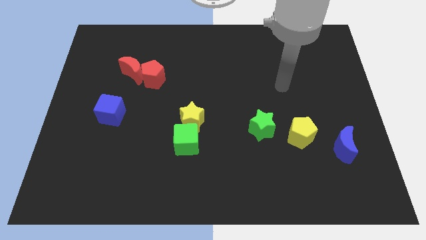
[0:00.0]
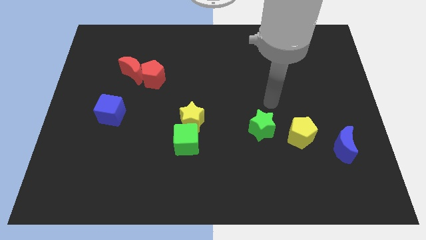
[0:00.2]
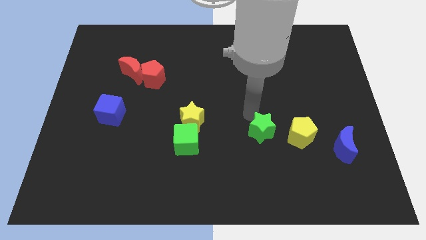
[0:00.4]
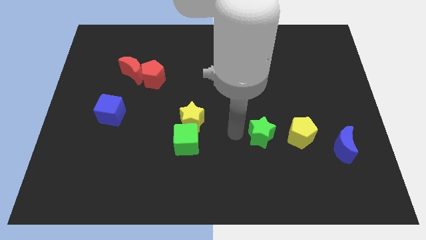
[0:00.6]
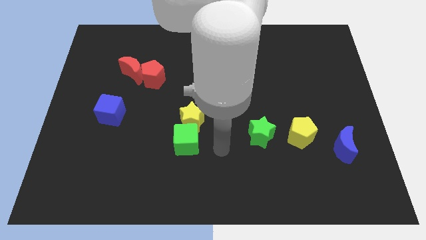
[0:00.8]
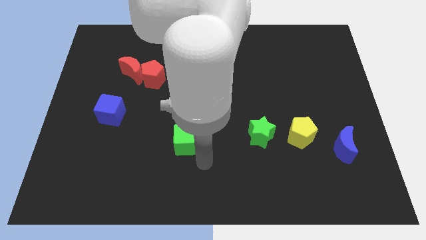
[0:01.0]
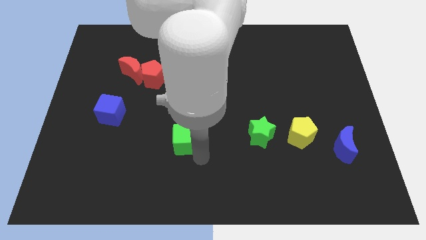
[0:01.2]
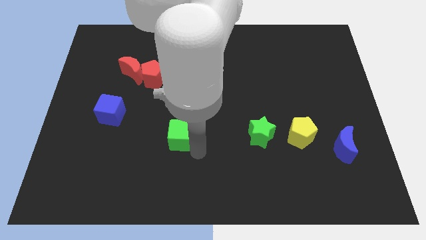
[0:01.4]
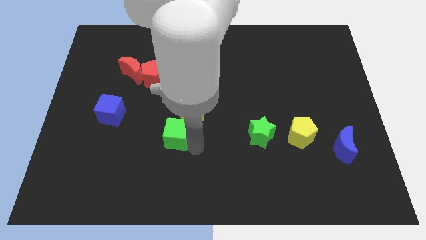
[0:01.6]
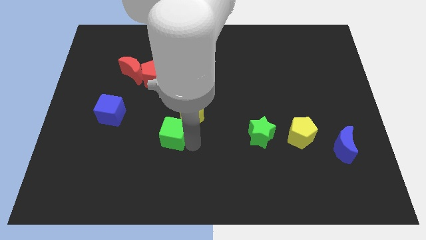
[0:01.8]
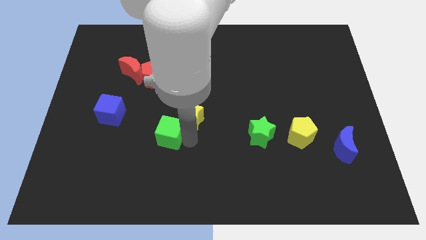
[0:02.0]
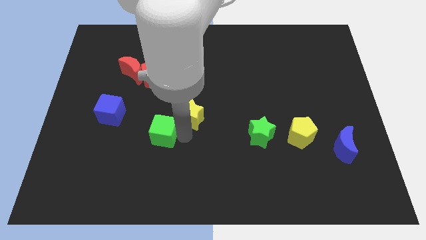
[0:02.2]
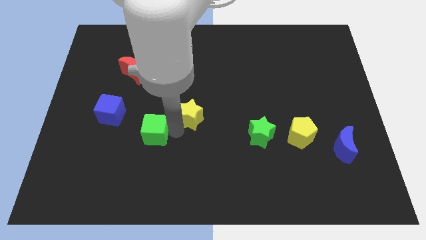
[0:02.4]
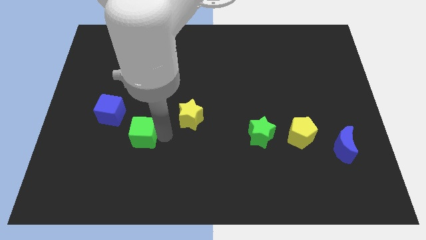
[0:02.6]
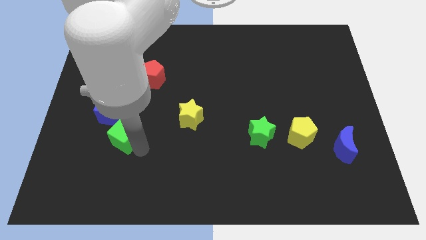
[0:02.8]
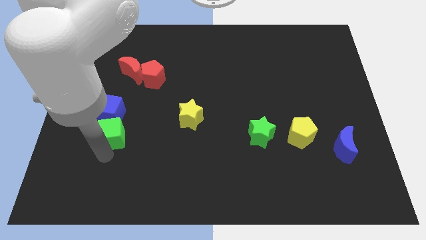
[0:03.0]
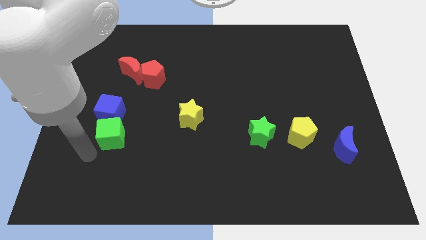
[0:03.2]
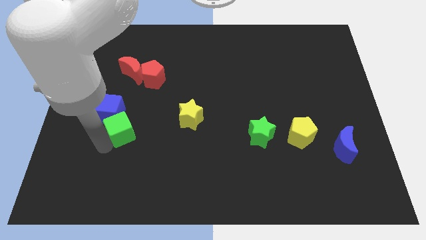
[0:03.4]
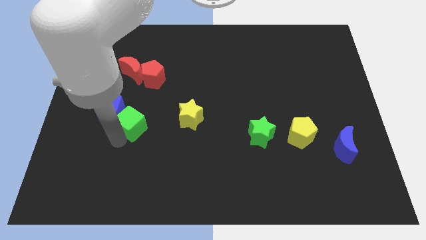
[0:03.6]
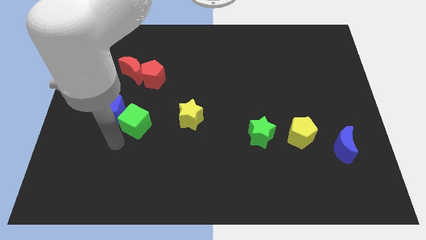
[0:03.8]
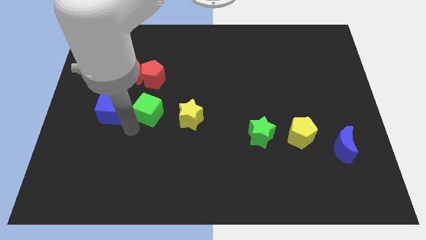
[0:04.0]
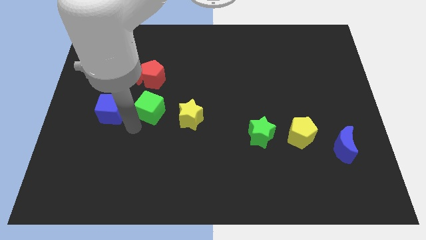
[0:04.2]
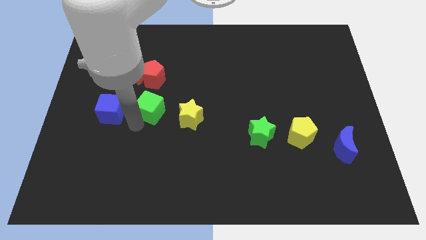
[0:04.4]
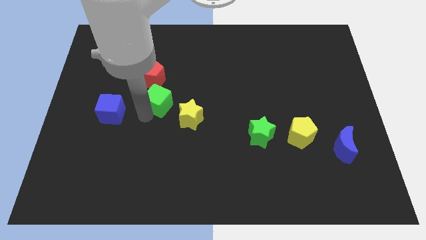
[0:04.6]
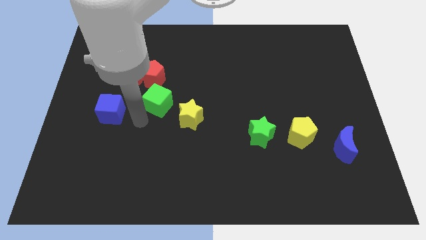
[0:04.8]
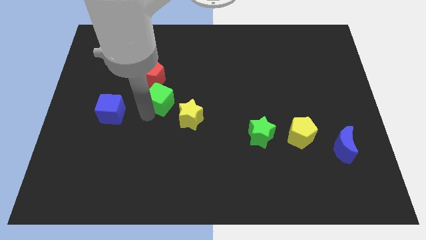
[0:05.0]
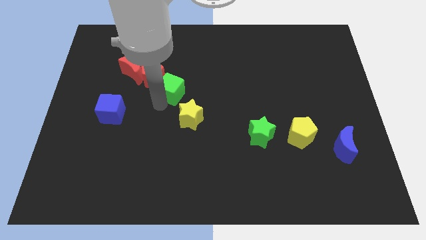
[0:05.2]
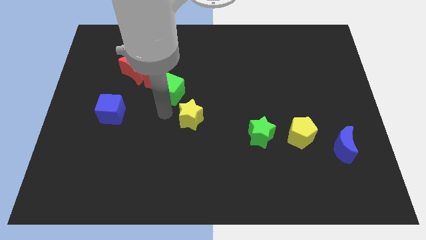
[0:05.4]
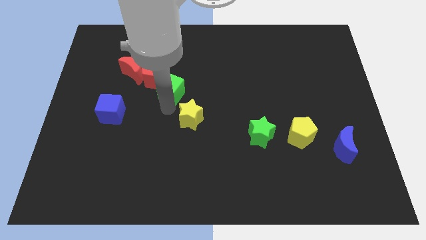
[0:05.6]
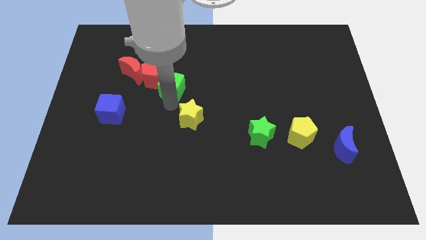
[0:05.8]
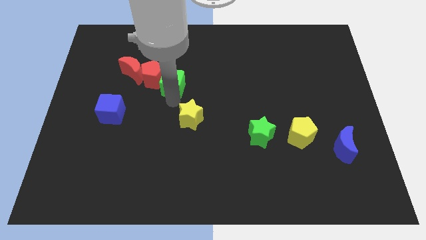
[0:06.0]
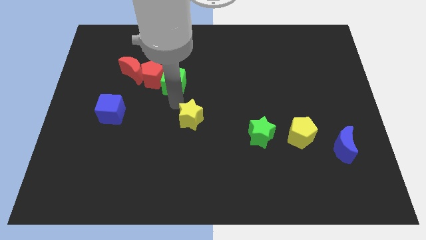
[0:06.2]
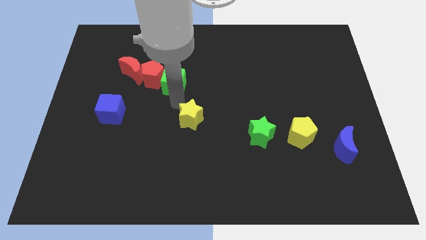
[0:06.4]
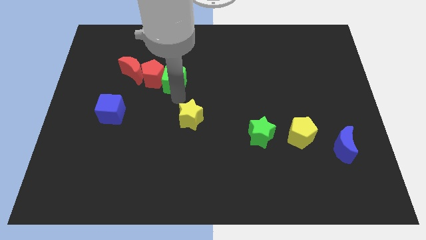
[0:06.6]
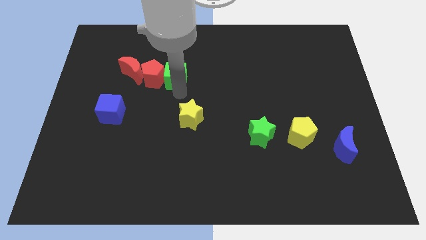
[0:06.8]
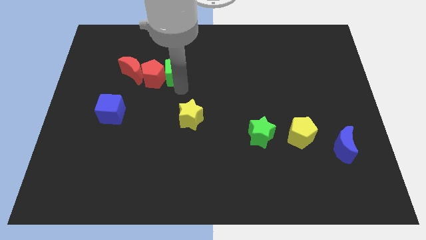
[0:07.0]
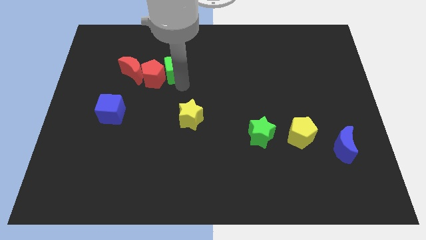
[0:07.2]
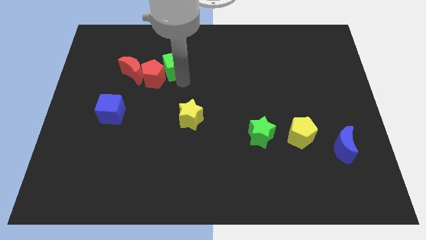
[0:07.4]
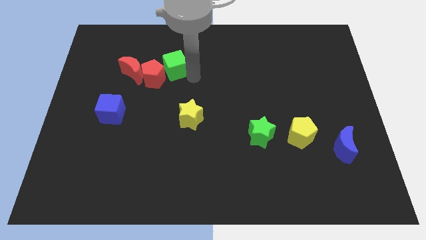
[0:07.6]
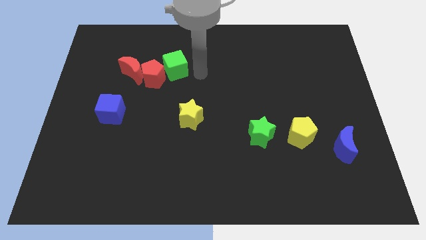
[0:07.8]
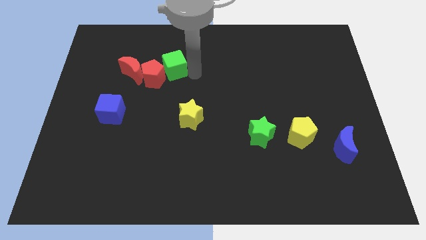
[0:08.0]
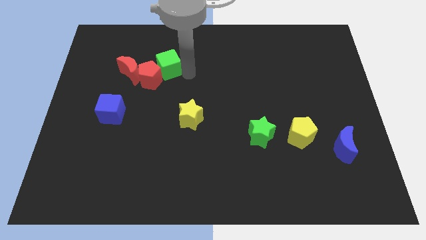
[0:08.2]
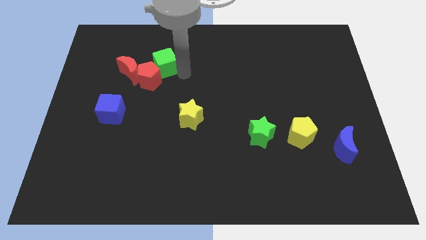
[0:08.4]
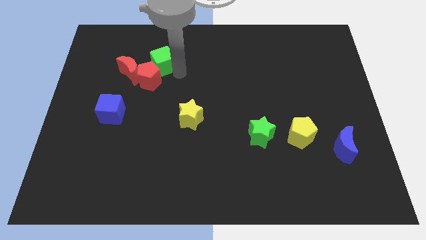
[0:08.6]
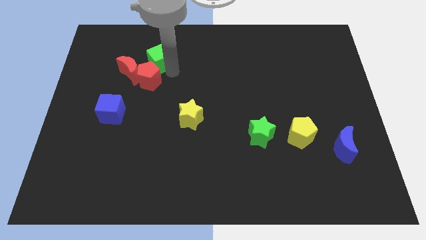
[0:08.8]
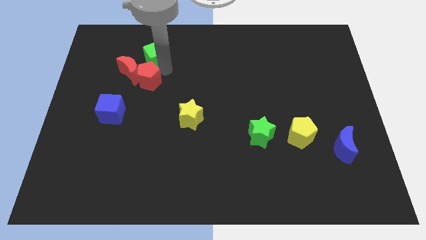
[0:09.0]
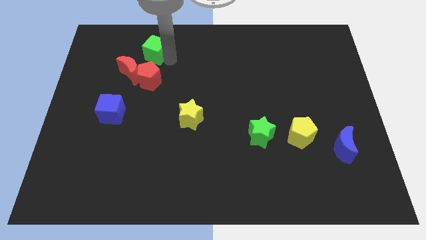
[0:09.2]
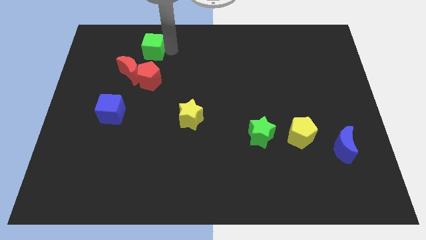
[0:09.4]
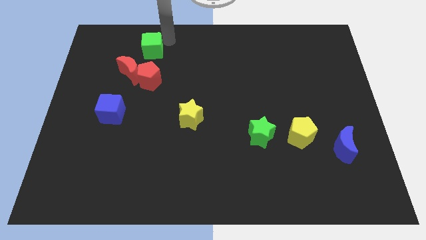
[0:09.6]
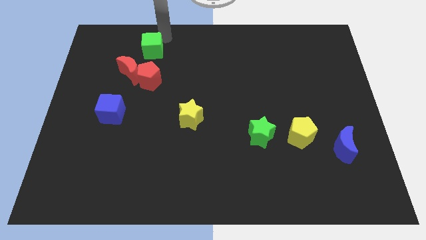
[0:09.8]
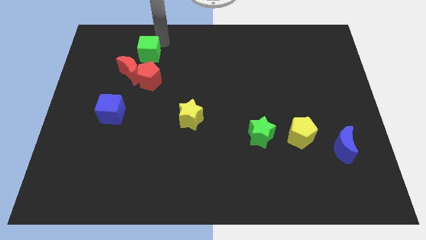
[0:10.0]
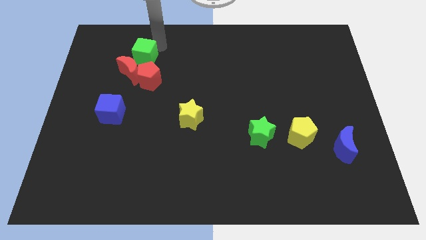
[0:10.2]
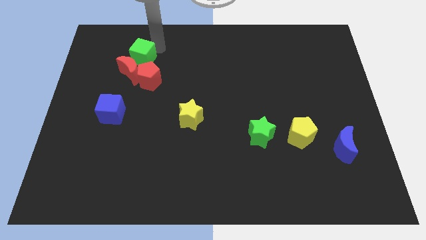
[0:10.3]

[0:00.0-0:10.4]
move the green cube close to the red moon

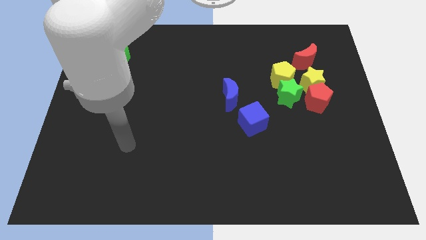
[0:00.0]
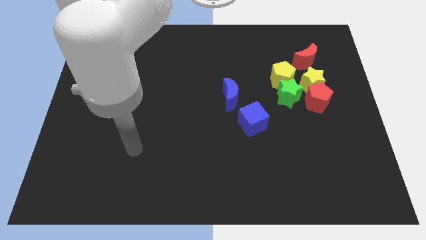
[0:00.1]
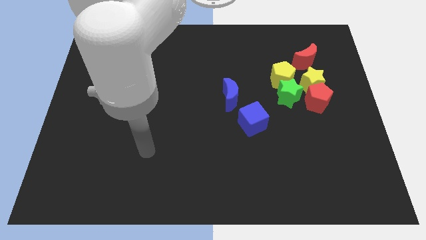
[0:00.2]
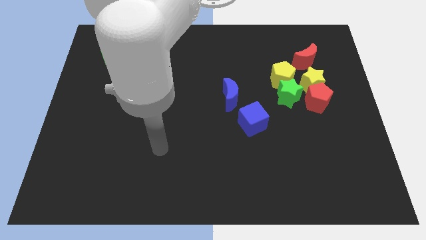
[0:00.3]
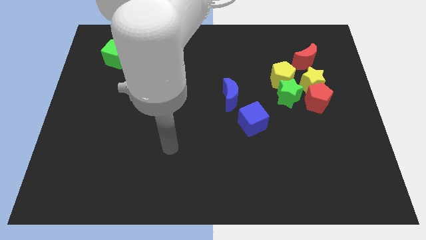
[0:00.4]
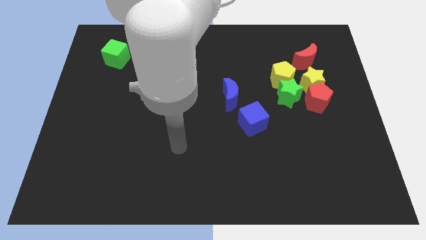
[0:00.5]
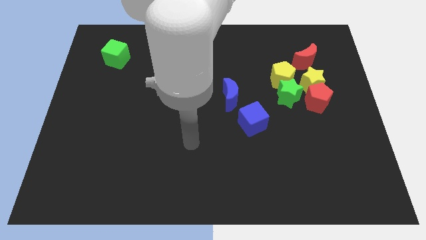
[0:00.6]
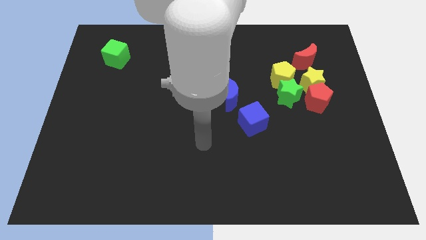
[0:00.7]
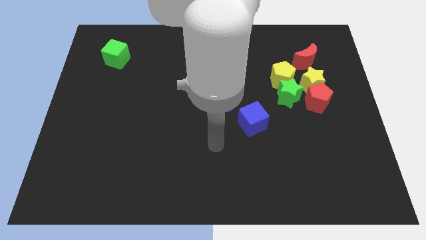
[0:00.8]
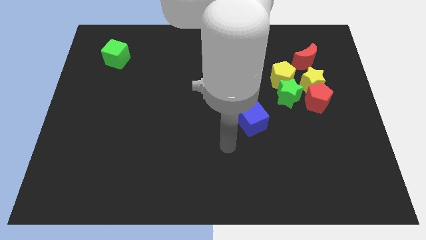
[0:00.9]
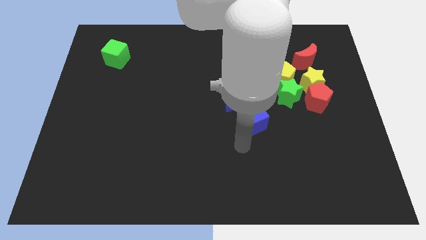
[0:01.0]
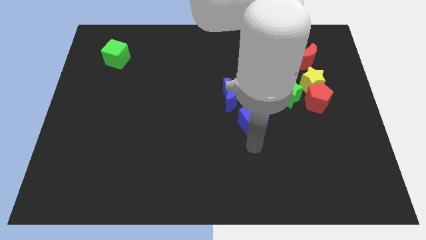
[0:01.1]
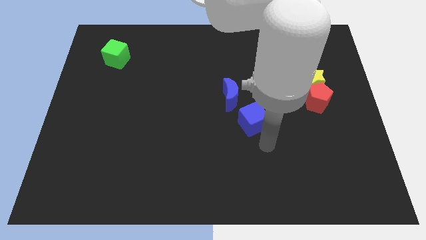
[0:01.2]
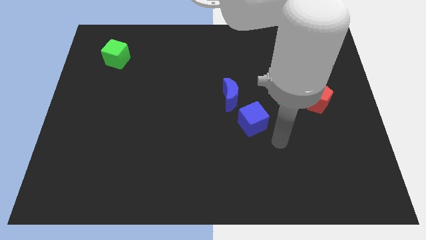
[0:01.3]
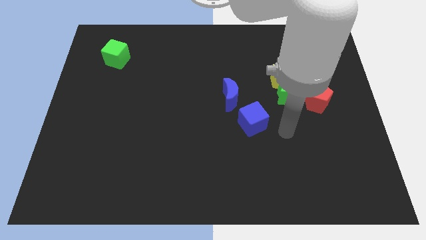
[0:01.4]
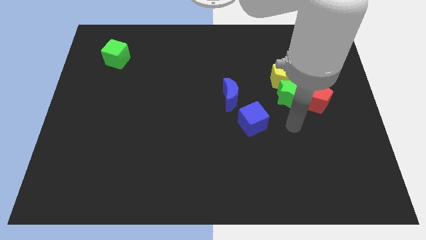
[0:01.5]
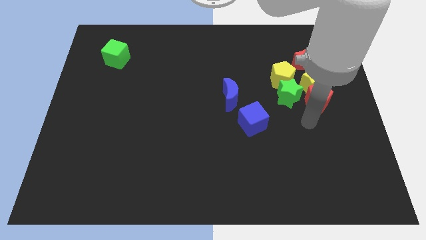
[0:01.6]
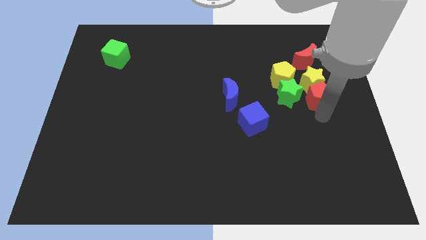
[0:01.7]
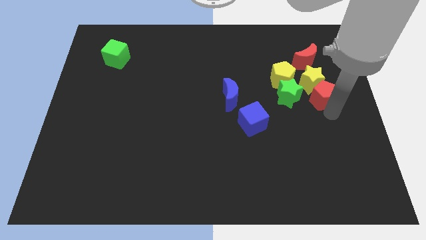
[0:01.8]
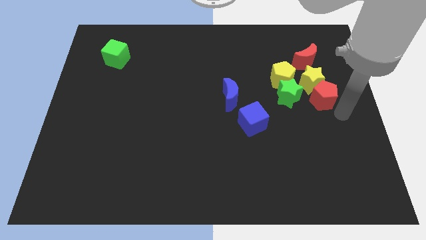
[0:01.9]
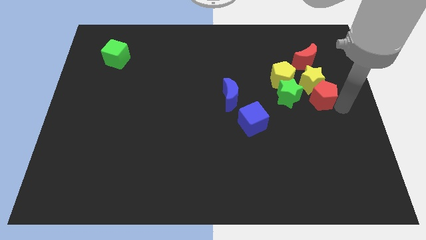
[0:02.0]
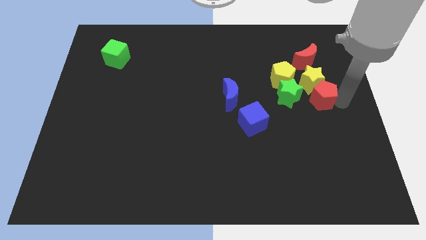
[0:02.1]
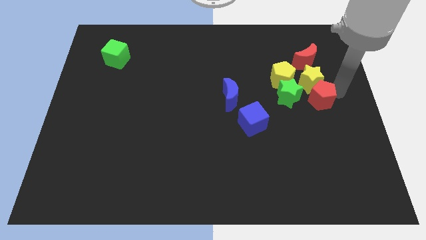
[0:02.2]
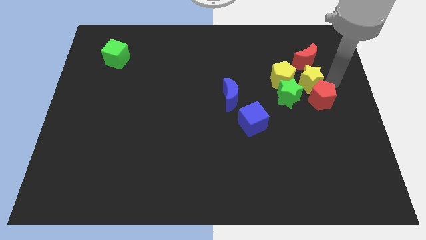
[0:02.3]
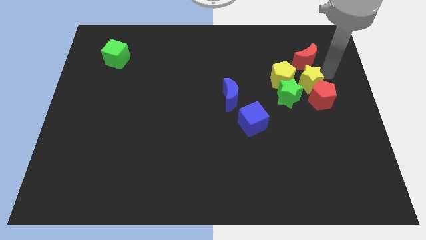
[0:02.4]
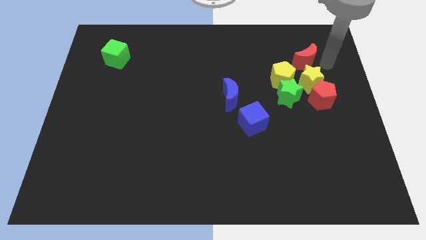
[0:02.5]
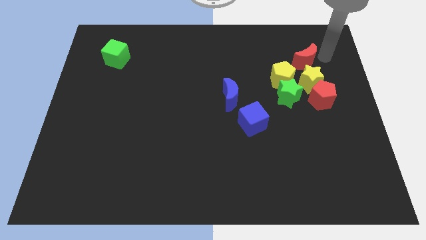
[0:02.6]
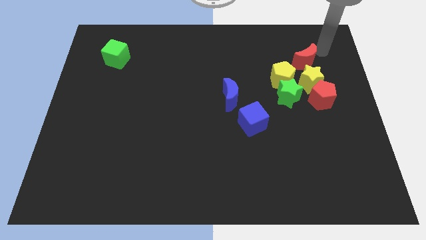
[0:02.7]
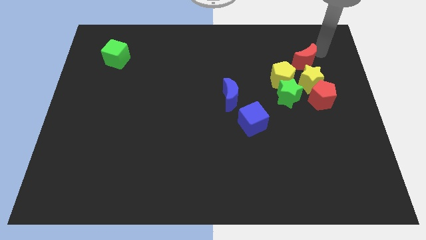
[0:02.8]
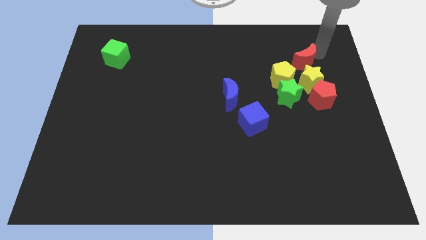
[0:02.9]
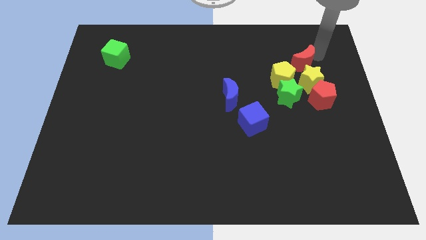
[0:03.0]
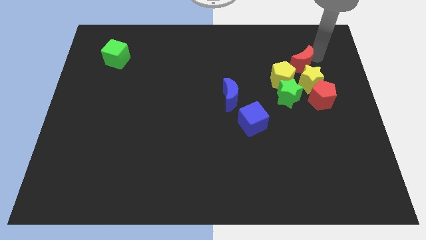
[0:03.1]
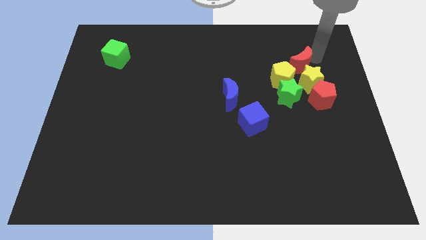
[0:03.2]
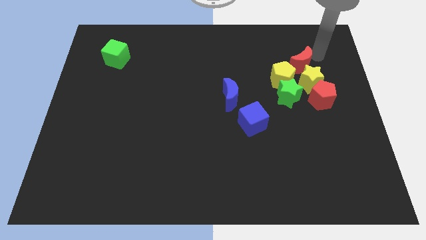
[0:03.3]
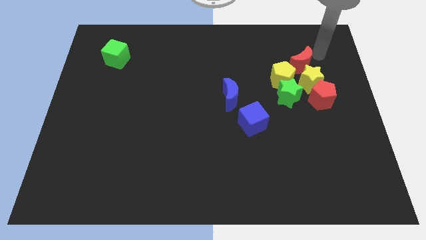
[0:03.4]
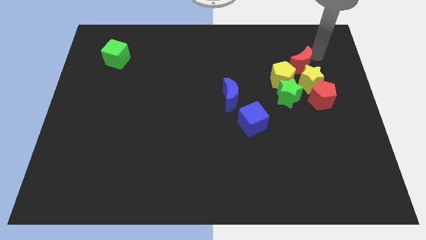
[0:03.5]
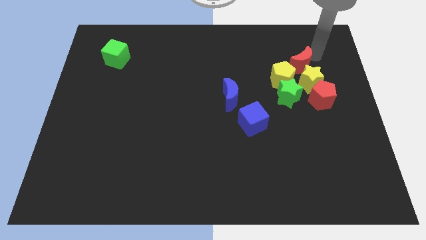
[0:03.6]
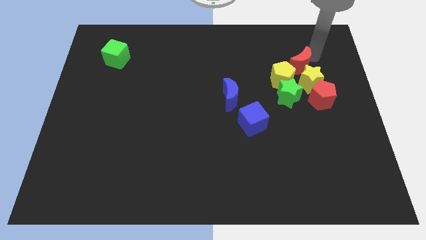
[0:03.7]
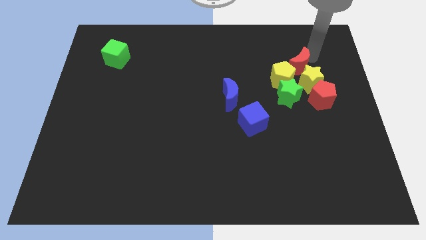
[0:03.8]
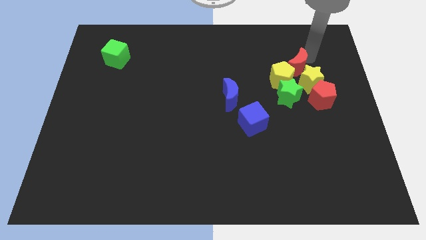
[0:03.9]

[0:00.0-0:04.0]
move the red moon to the yellow pentagon
